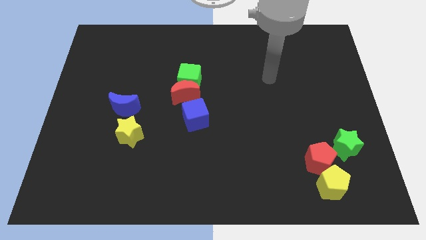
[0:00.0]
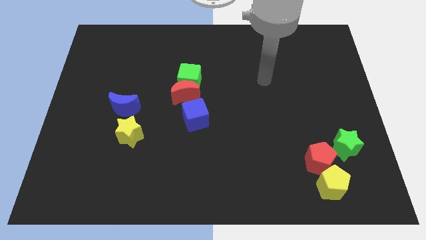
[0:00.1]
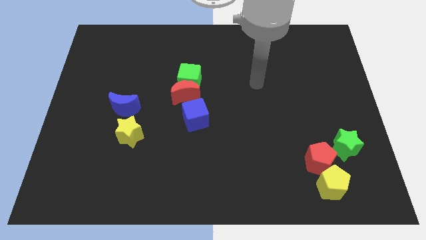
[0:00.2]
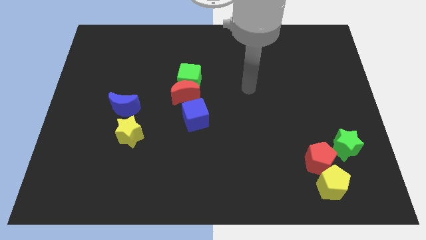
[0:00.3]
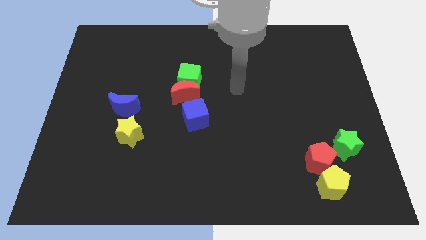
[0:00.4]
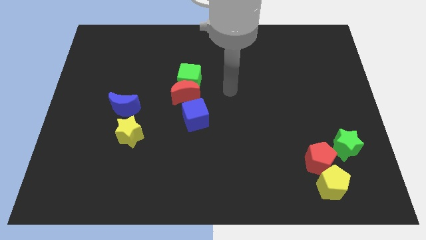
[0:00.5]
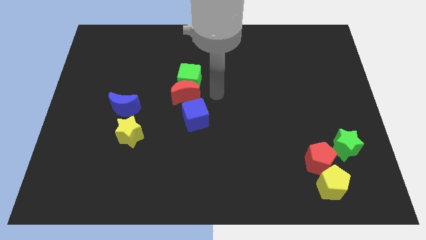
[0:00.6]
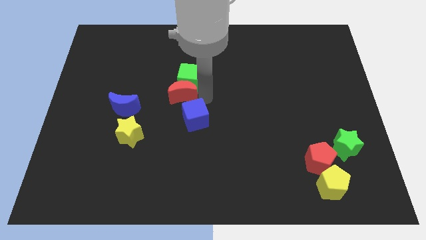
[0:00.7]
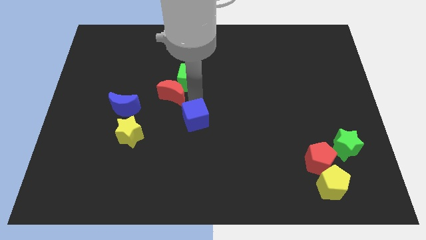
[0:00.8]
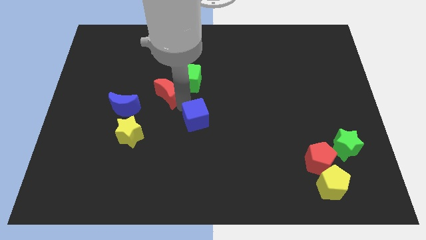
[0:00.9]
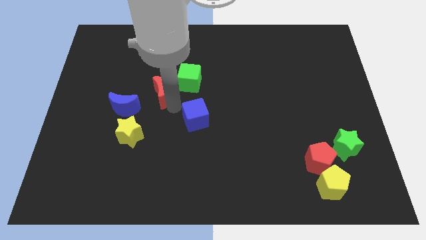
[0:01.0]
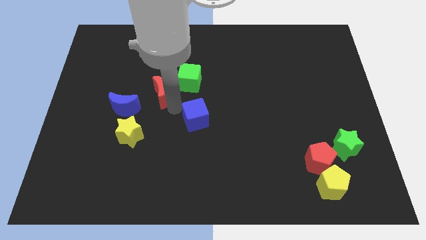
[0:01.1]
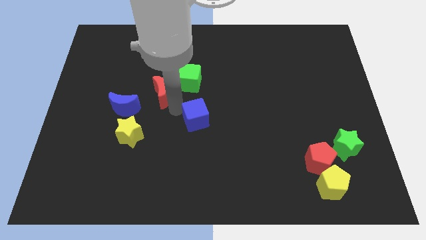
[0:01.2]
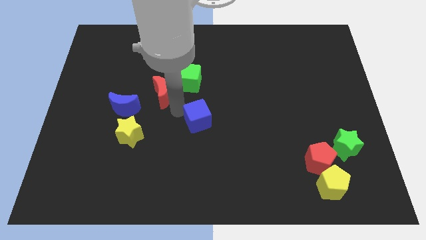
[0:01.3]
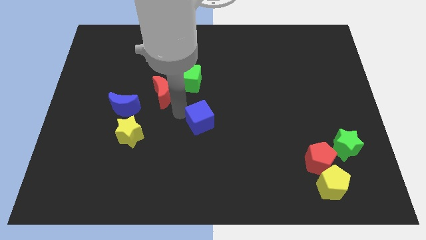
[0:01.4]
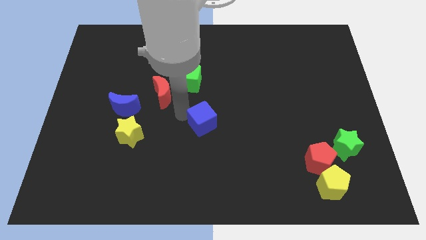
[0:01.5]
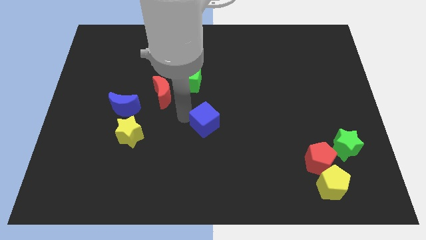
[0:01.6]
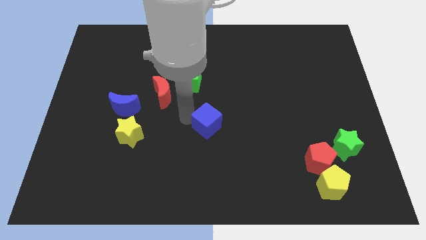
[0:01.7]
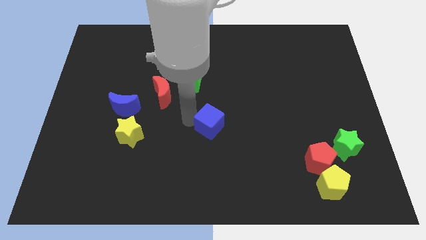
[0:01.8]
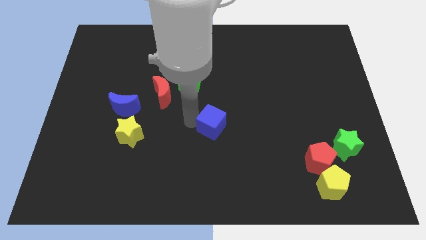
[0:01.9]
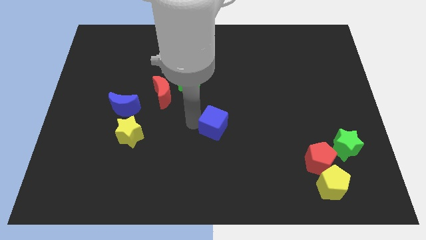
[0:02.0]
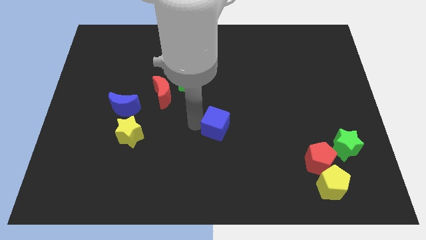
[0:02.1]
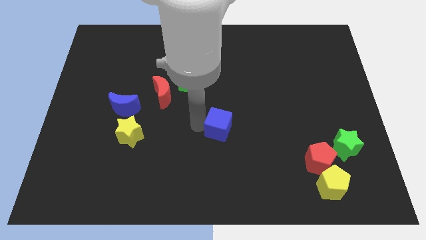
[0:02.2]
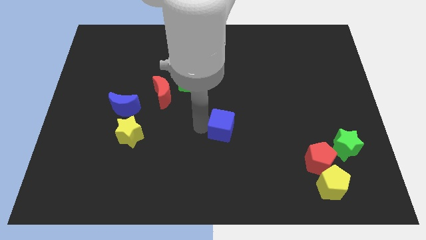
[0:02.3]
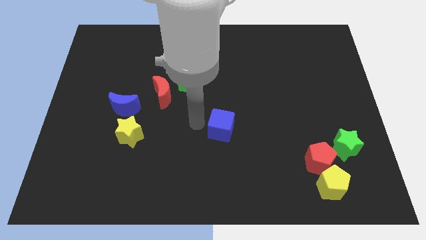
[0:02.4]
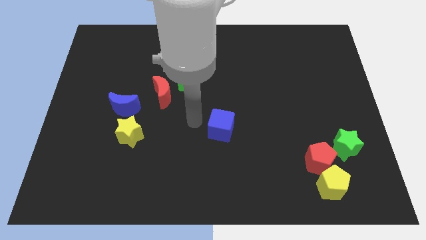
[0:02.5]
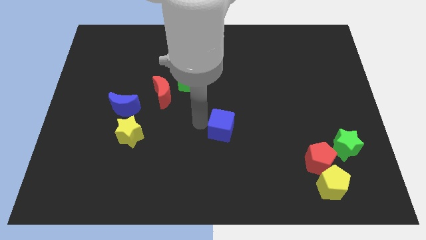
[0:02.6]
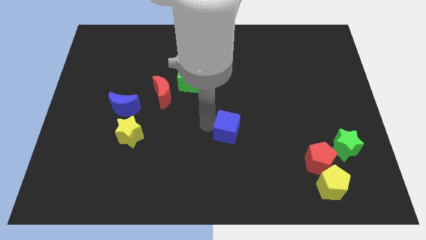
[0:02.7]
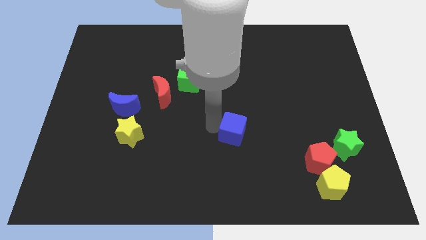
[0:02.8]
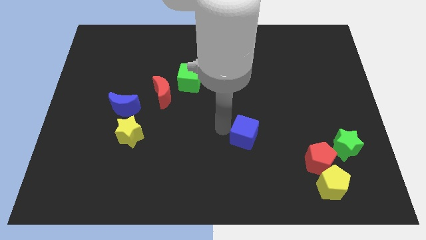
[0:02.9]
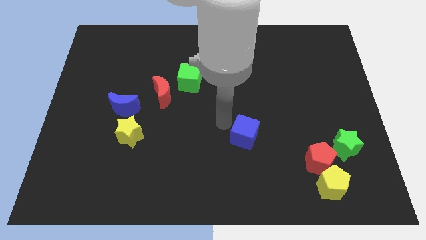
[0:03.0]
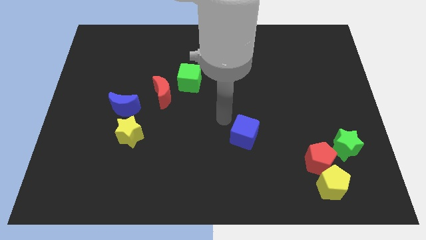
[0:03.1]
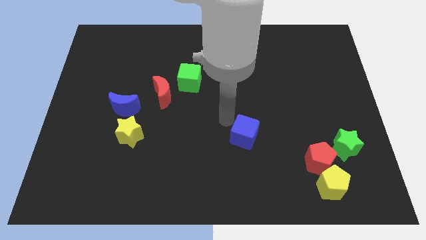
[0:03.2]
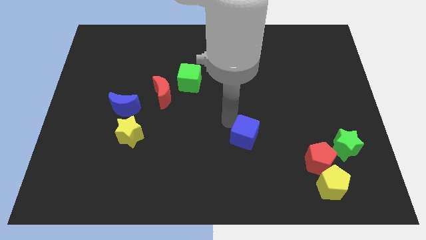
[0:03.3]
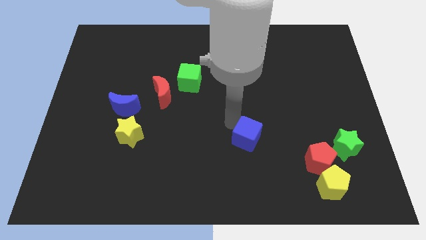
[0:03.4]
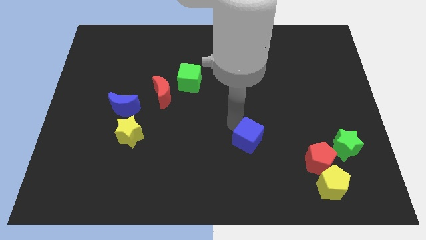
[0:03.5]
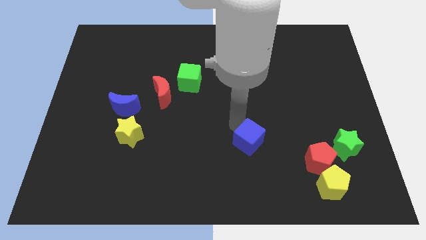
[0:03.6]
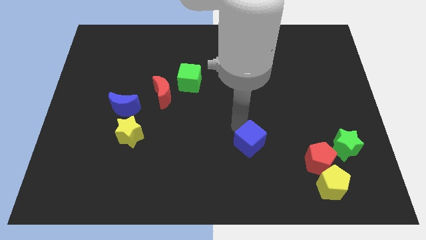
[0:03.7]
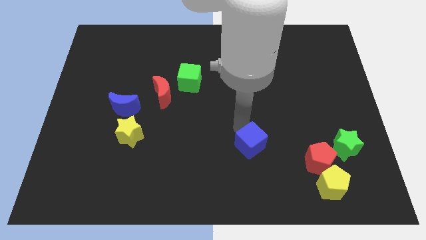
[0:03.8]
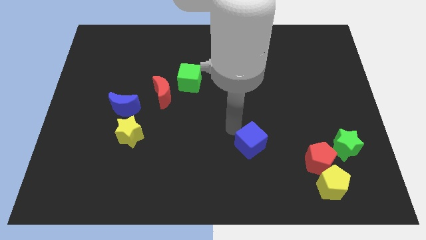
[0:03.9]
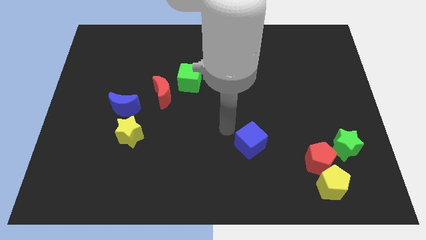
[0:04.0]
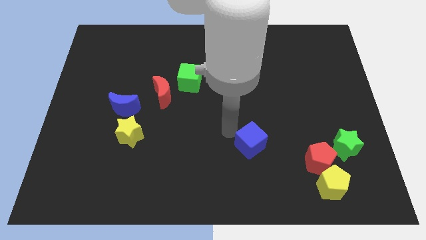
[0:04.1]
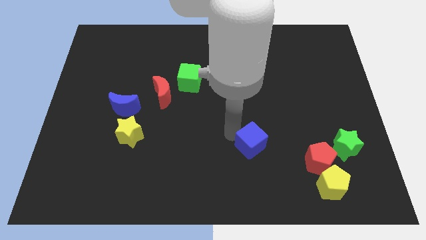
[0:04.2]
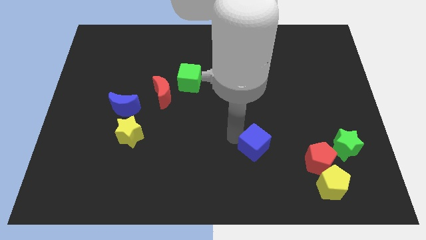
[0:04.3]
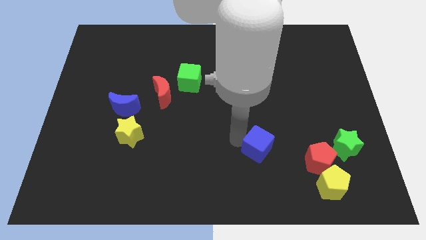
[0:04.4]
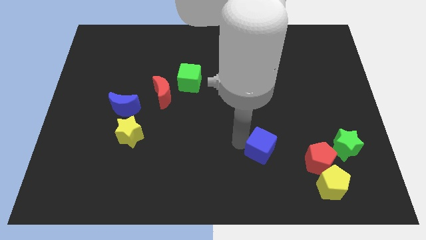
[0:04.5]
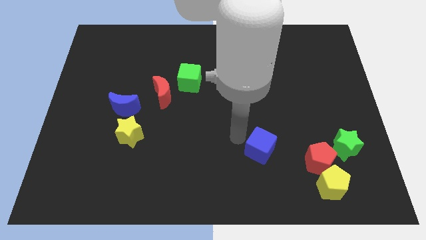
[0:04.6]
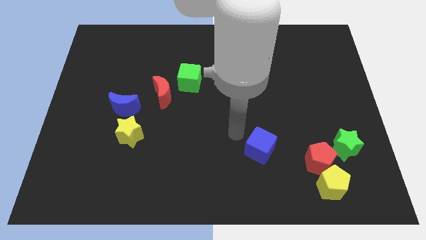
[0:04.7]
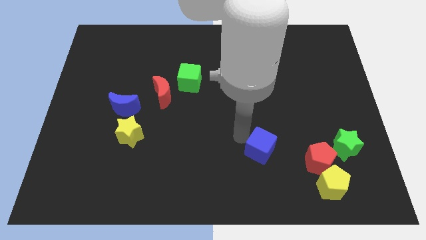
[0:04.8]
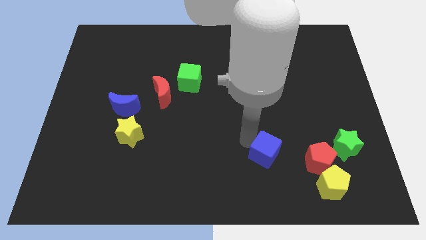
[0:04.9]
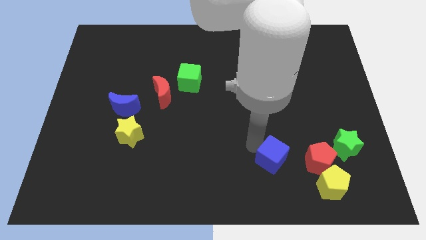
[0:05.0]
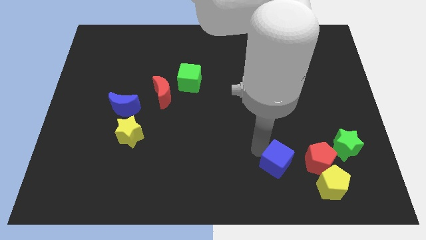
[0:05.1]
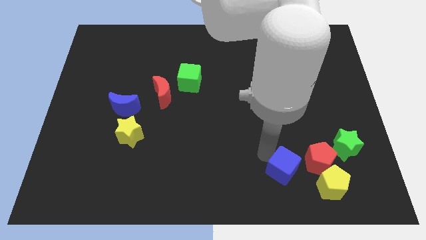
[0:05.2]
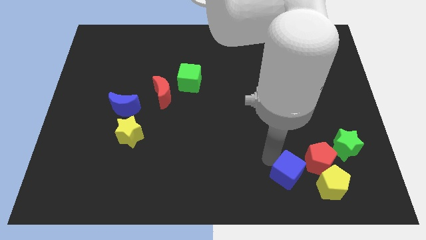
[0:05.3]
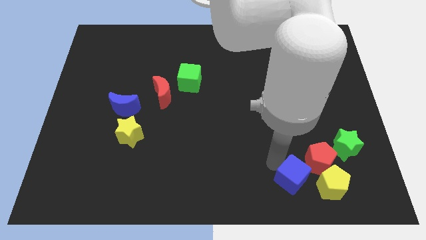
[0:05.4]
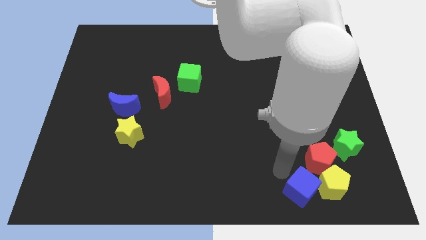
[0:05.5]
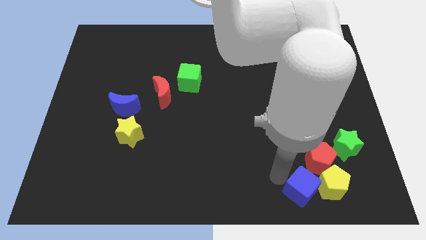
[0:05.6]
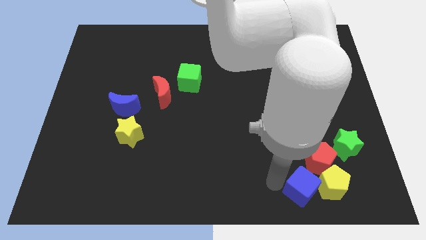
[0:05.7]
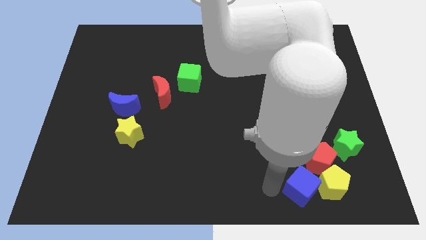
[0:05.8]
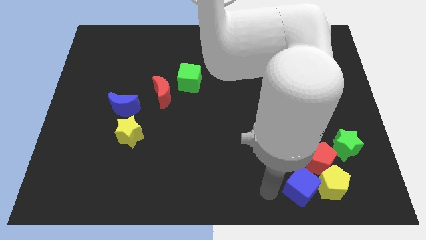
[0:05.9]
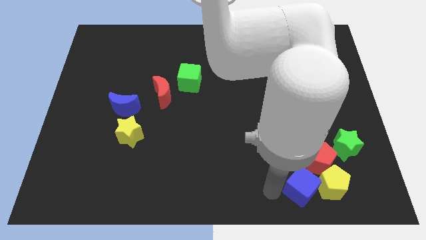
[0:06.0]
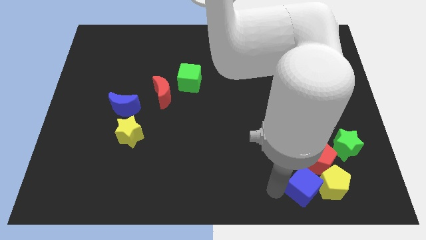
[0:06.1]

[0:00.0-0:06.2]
slide the blue cube towards the yellow pentagon

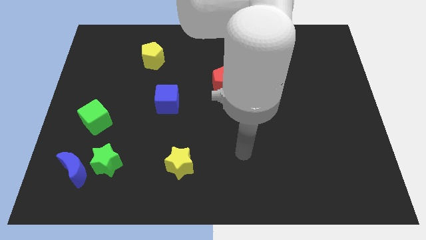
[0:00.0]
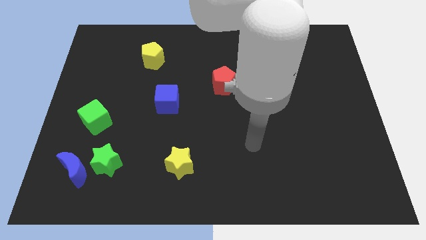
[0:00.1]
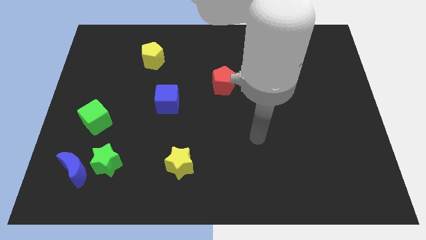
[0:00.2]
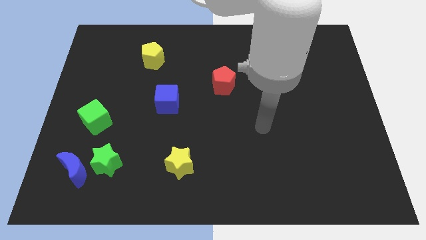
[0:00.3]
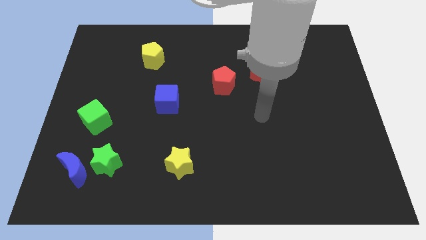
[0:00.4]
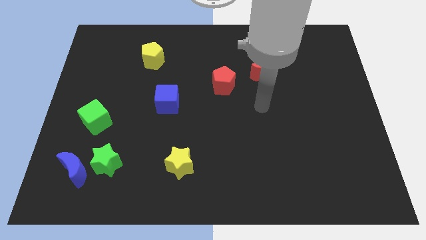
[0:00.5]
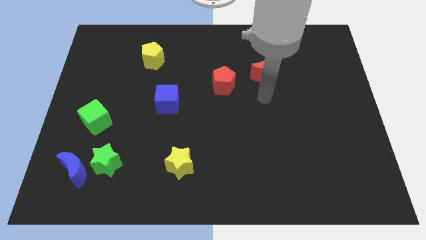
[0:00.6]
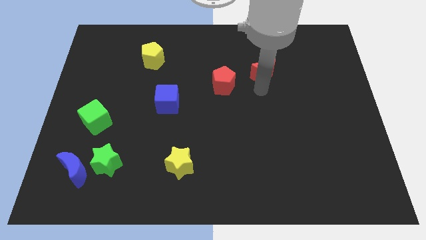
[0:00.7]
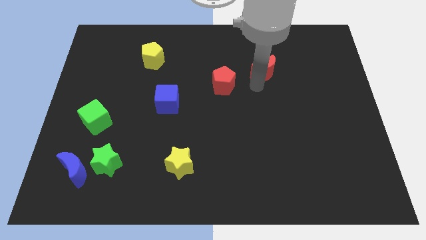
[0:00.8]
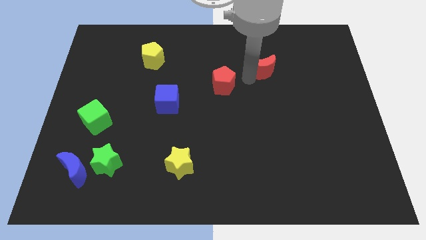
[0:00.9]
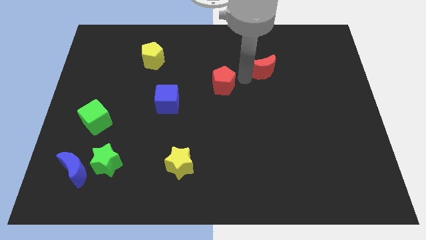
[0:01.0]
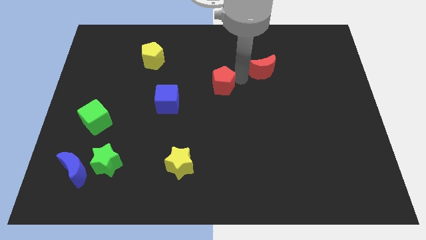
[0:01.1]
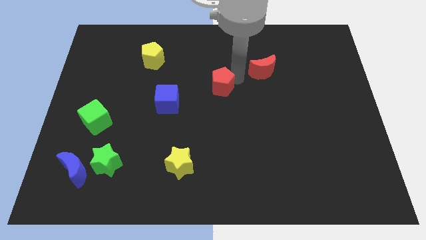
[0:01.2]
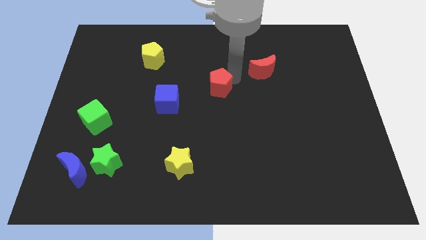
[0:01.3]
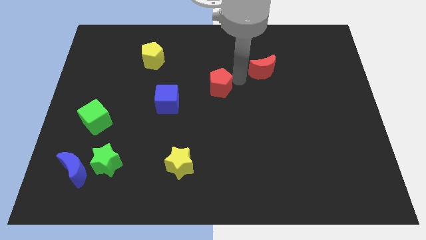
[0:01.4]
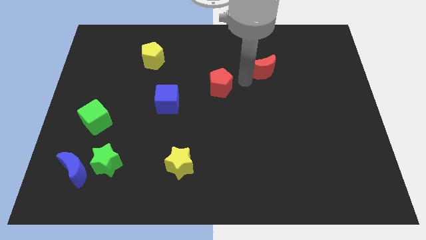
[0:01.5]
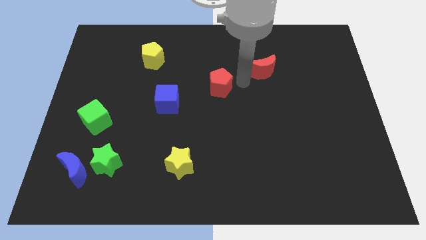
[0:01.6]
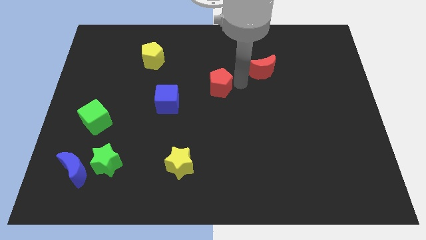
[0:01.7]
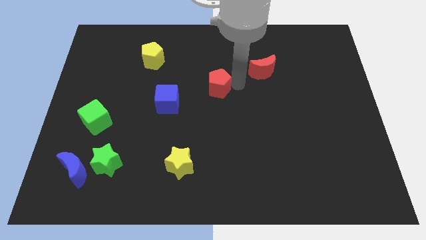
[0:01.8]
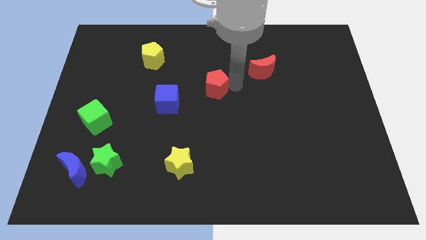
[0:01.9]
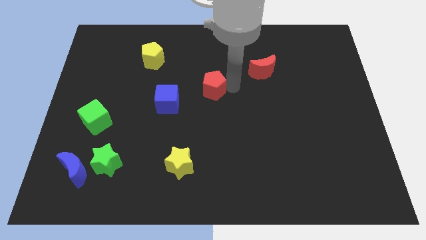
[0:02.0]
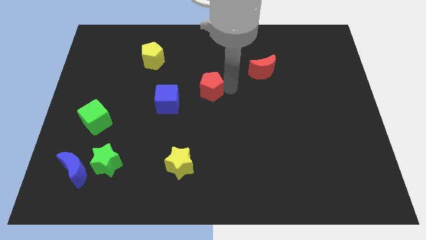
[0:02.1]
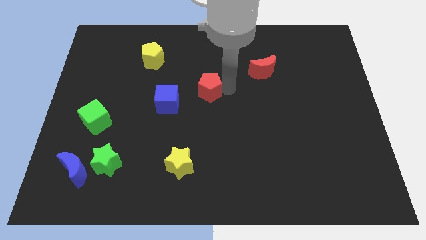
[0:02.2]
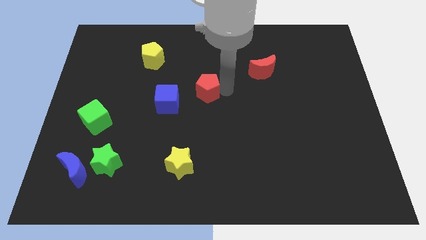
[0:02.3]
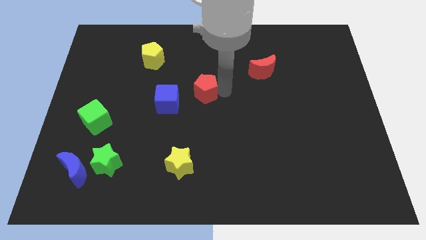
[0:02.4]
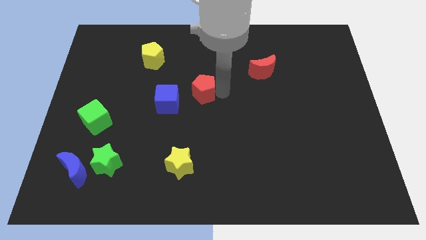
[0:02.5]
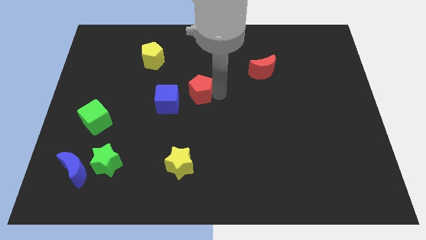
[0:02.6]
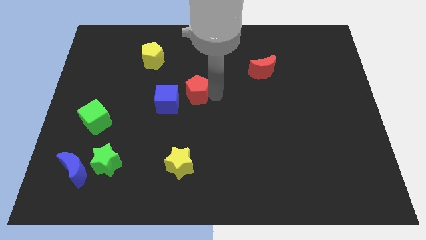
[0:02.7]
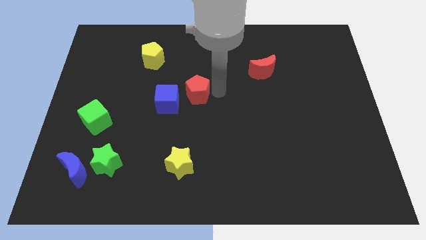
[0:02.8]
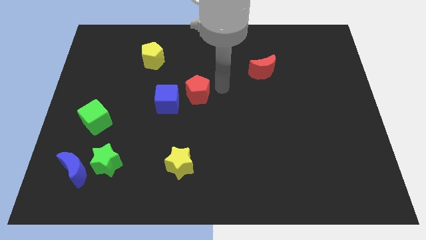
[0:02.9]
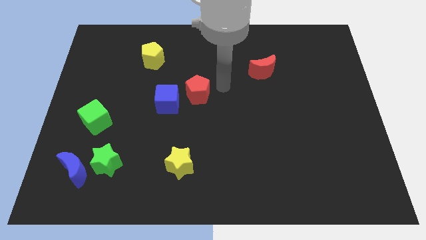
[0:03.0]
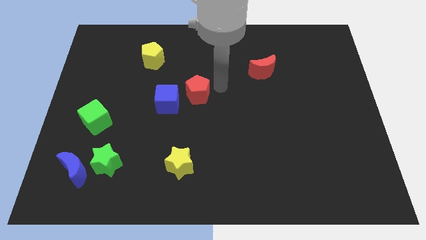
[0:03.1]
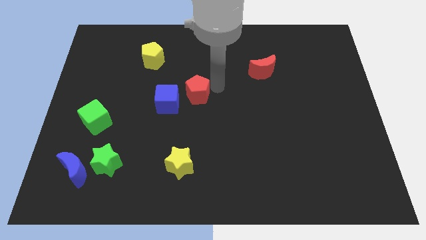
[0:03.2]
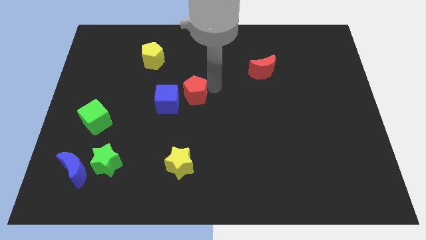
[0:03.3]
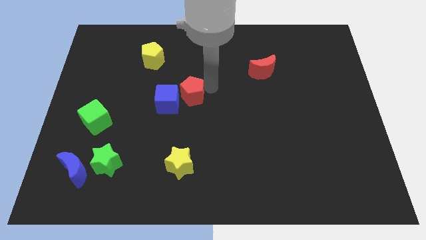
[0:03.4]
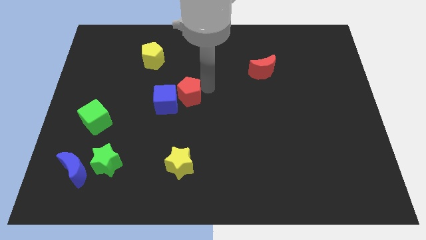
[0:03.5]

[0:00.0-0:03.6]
push the red pentagon close to the blue cube
